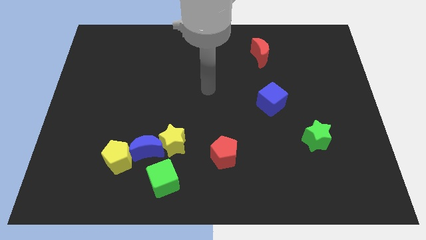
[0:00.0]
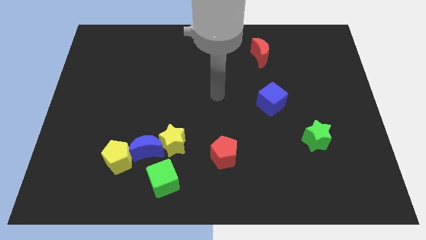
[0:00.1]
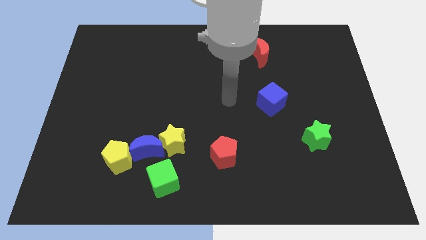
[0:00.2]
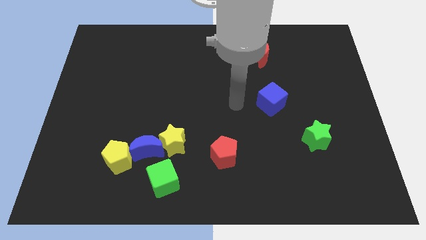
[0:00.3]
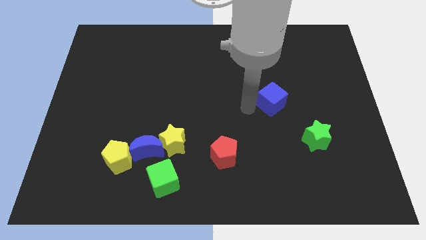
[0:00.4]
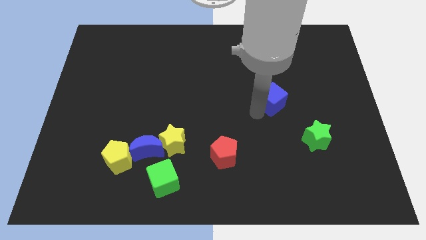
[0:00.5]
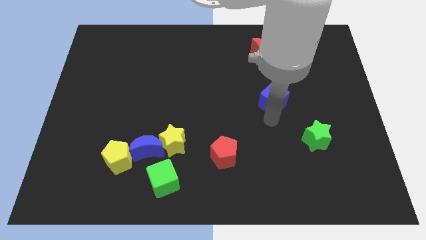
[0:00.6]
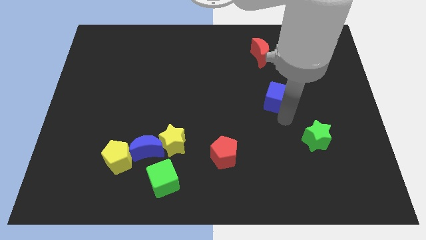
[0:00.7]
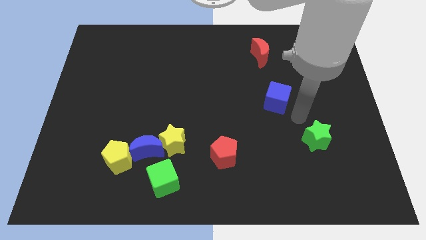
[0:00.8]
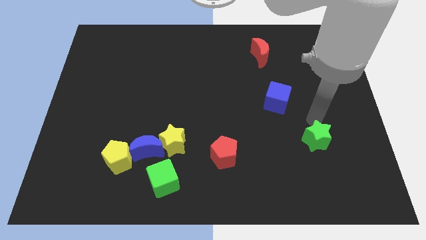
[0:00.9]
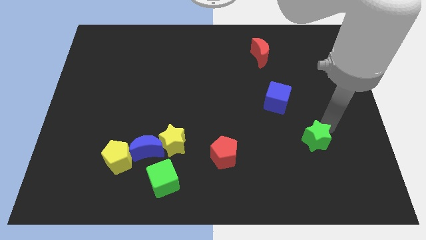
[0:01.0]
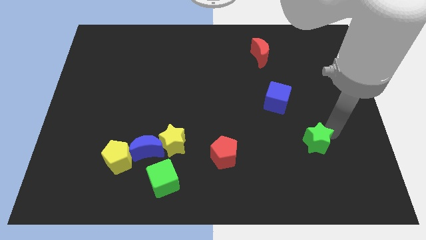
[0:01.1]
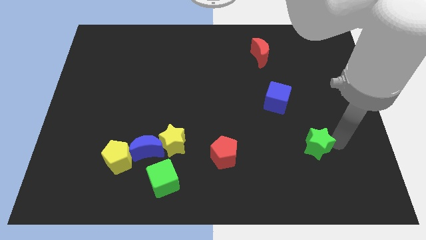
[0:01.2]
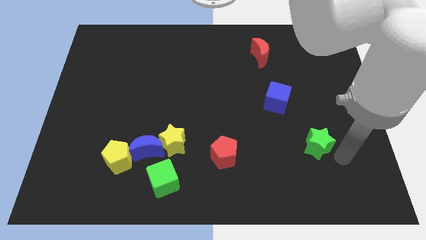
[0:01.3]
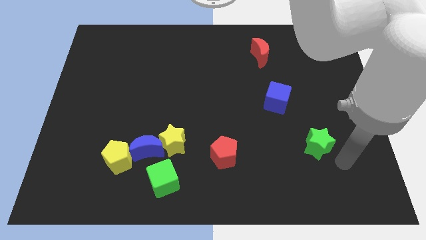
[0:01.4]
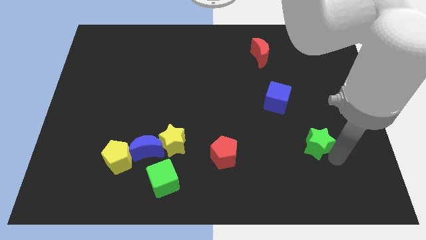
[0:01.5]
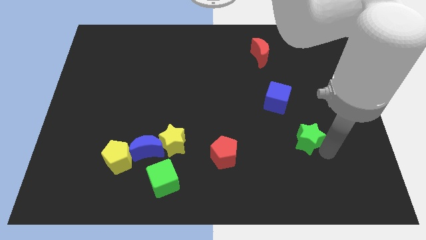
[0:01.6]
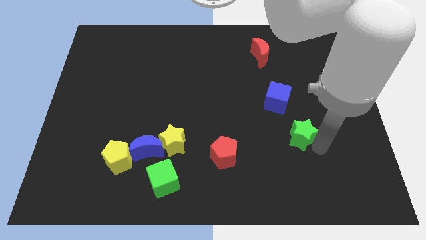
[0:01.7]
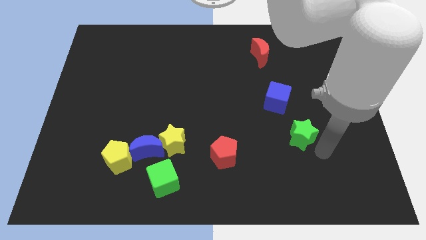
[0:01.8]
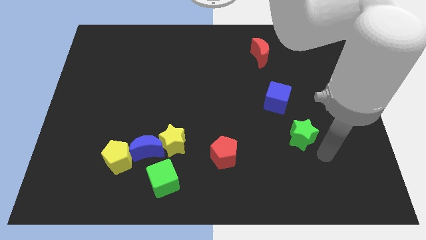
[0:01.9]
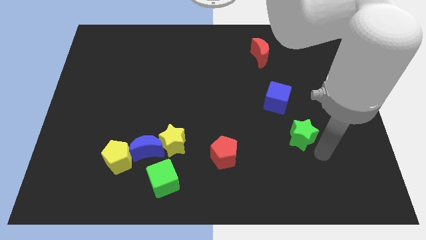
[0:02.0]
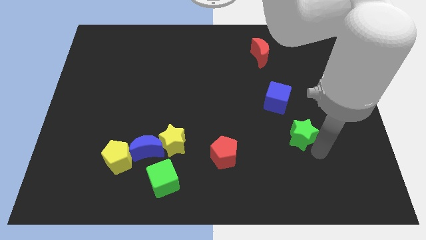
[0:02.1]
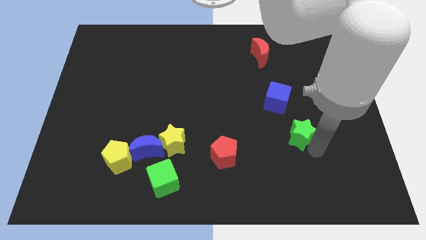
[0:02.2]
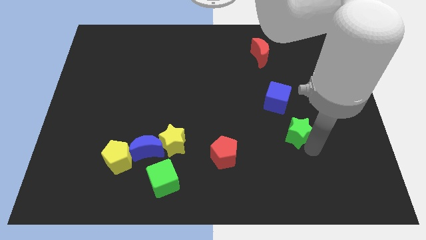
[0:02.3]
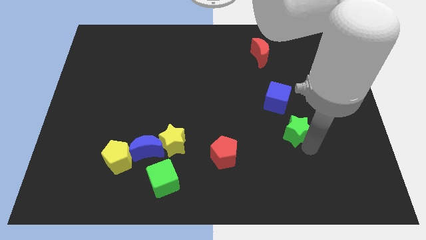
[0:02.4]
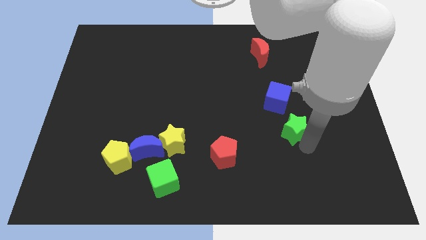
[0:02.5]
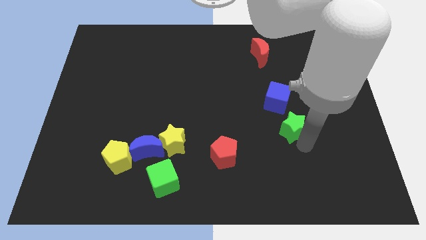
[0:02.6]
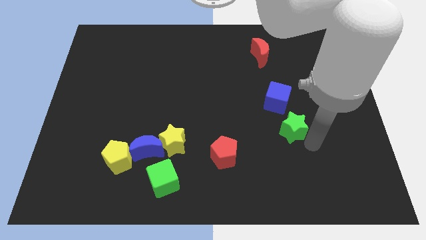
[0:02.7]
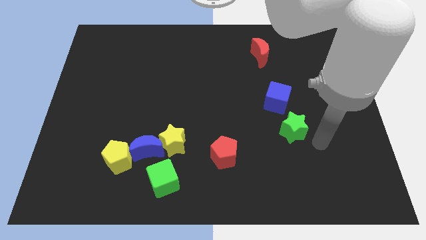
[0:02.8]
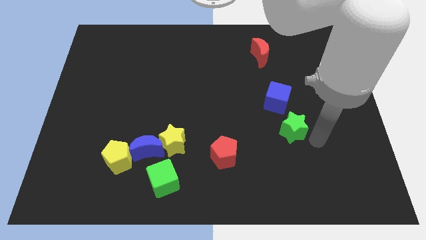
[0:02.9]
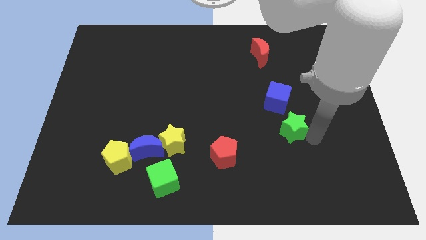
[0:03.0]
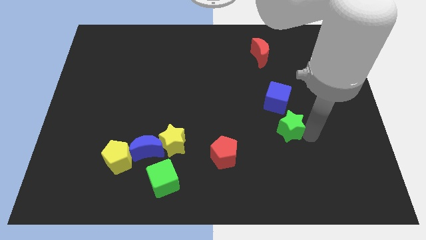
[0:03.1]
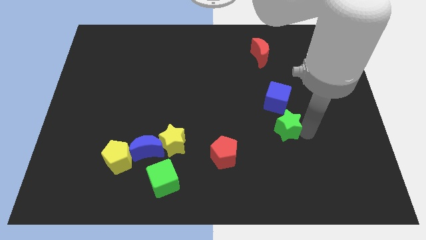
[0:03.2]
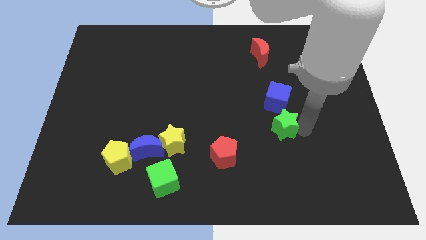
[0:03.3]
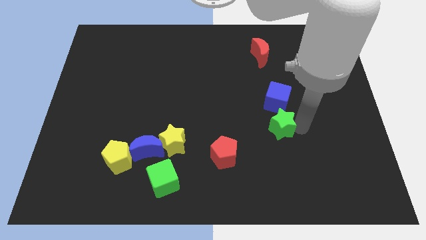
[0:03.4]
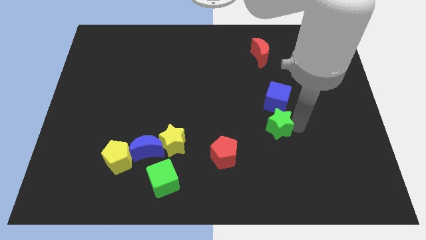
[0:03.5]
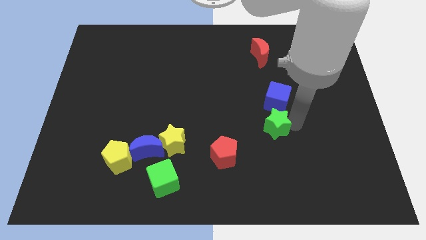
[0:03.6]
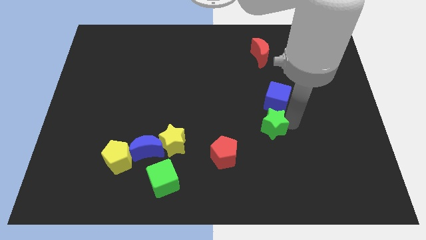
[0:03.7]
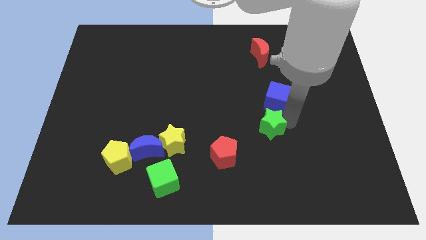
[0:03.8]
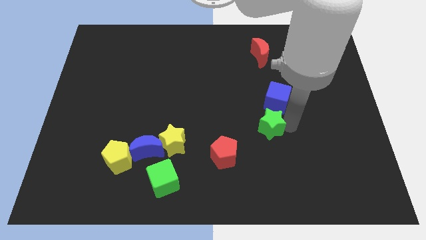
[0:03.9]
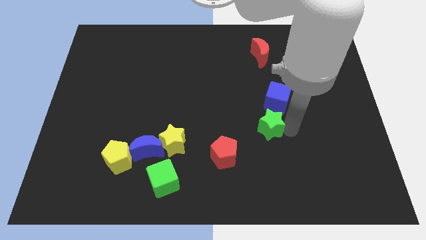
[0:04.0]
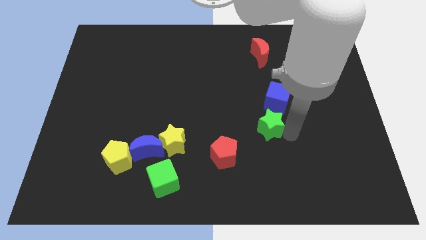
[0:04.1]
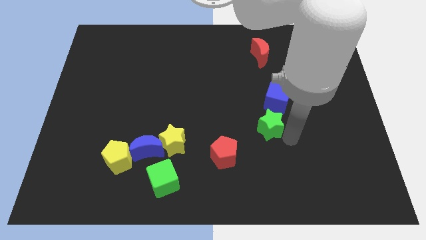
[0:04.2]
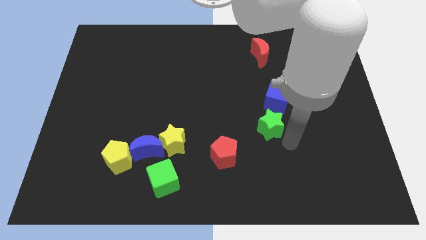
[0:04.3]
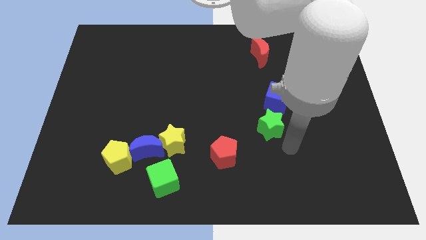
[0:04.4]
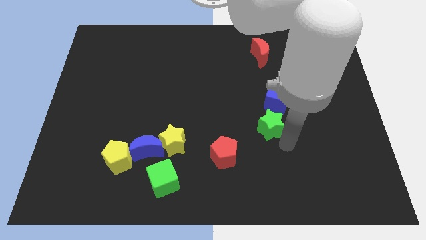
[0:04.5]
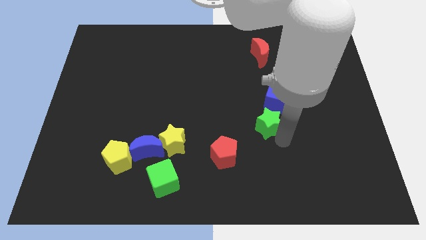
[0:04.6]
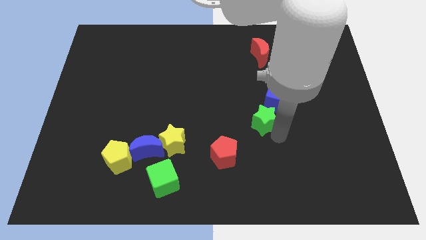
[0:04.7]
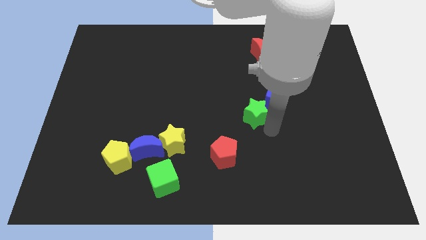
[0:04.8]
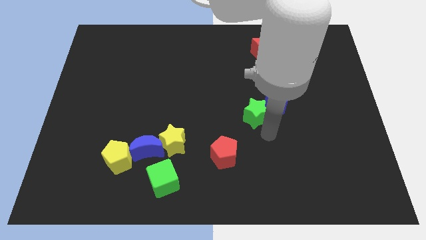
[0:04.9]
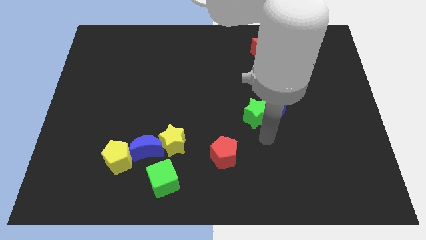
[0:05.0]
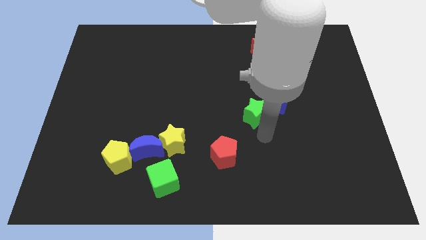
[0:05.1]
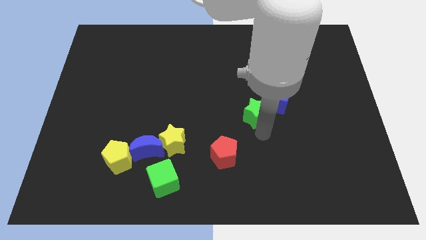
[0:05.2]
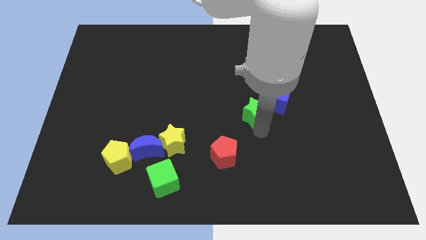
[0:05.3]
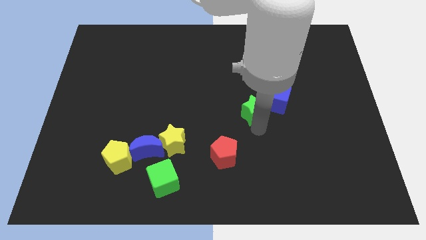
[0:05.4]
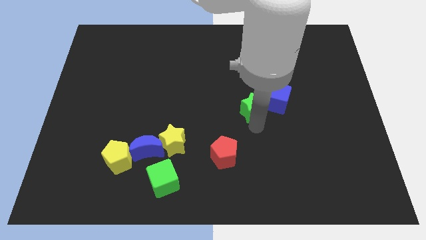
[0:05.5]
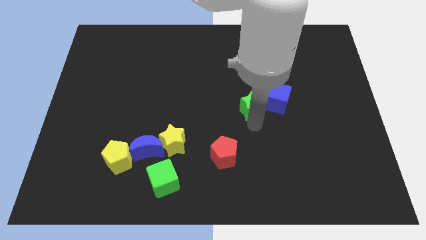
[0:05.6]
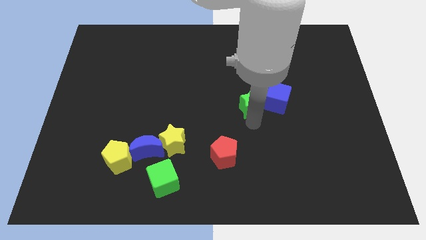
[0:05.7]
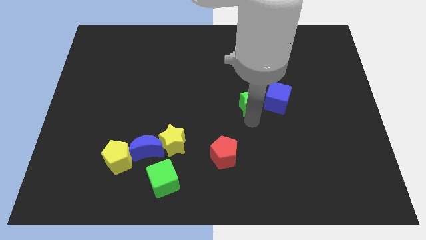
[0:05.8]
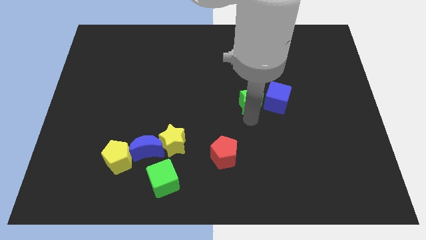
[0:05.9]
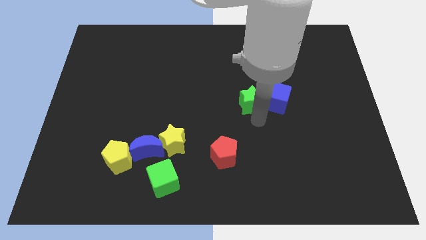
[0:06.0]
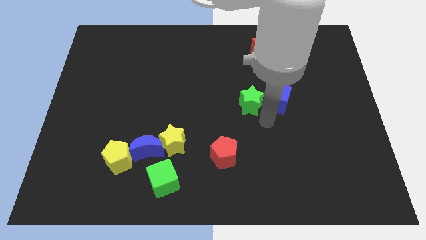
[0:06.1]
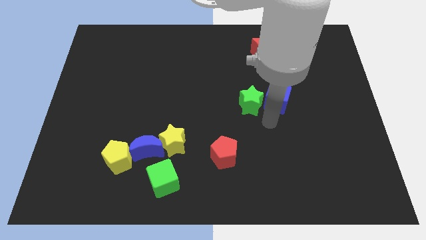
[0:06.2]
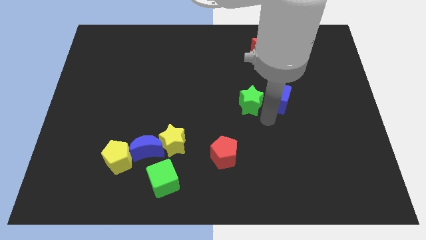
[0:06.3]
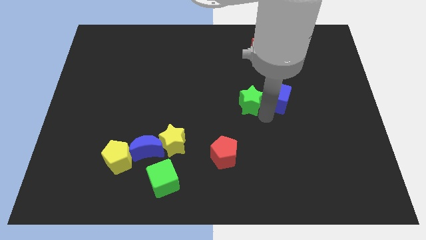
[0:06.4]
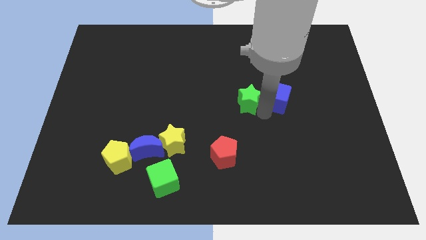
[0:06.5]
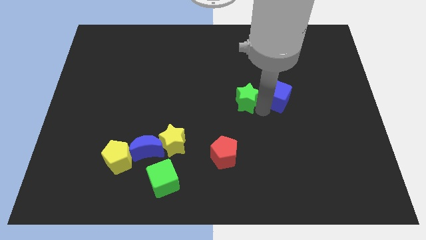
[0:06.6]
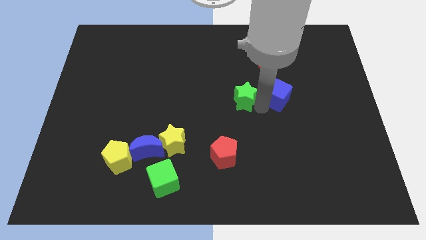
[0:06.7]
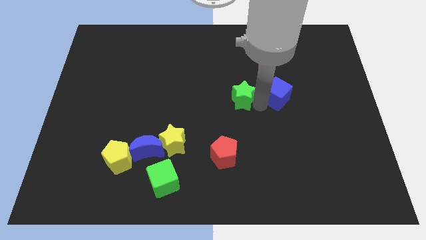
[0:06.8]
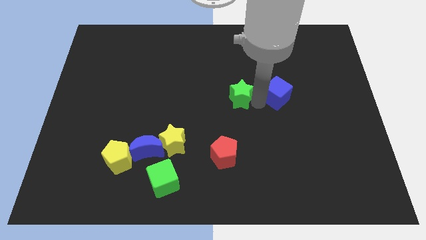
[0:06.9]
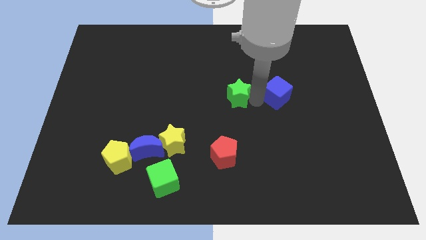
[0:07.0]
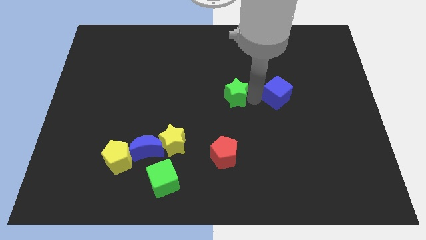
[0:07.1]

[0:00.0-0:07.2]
push the green star upwards and left diagonally

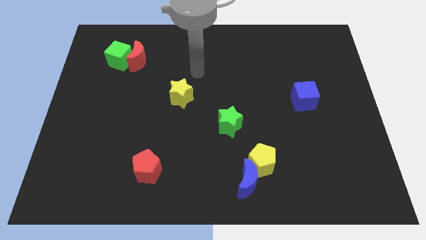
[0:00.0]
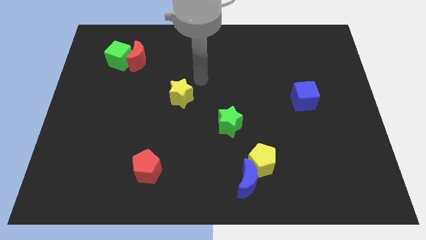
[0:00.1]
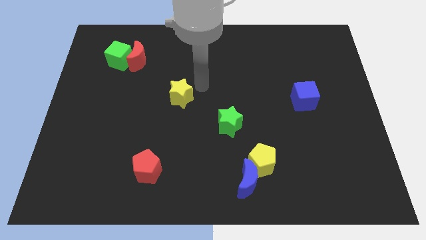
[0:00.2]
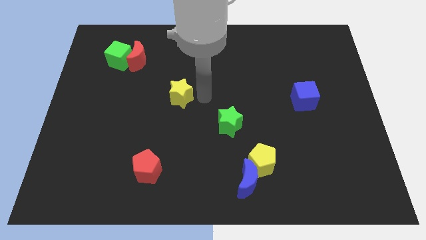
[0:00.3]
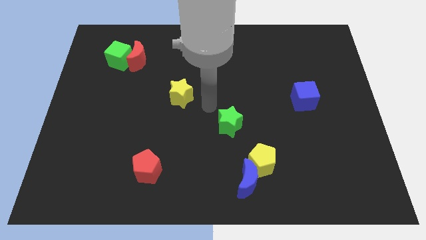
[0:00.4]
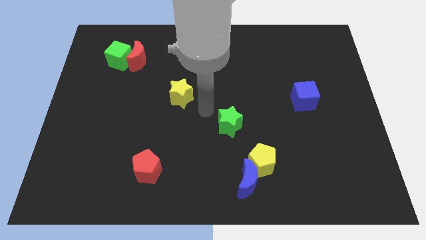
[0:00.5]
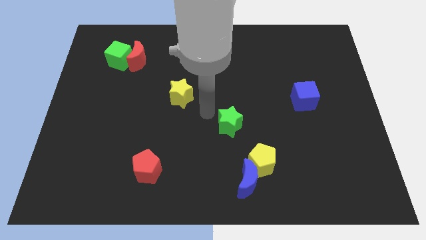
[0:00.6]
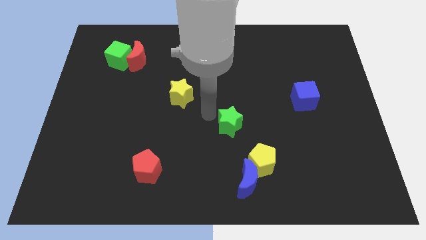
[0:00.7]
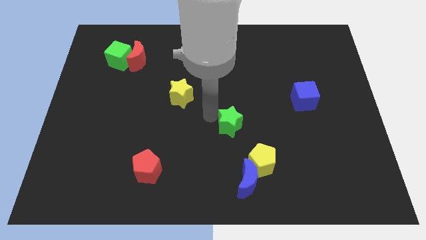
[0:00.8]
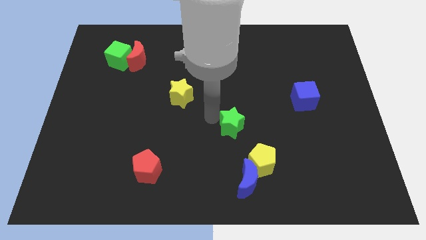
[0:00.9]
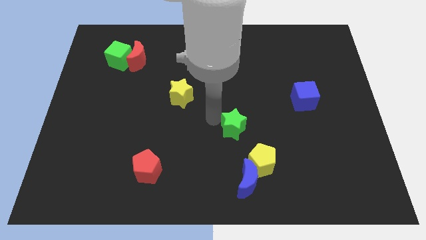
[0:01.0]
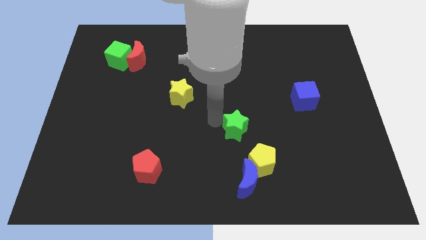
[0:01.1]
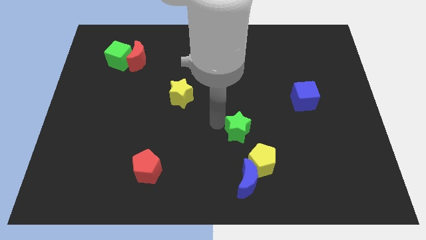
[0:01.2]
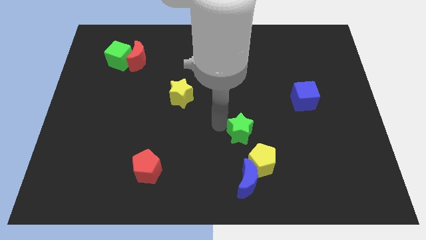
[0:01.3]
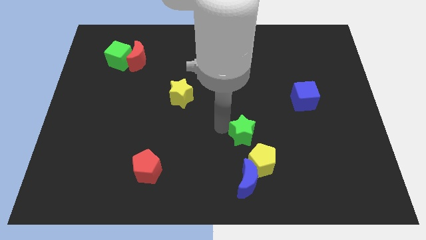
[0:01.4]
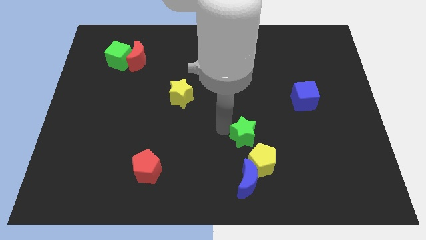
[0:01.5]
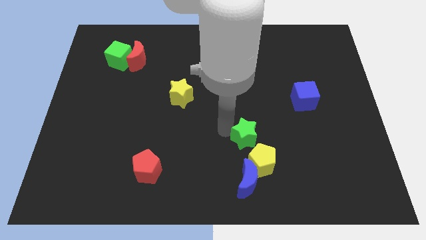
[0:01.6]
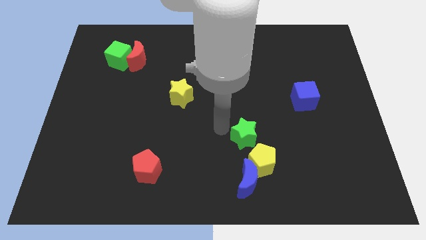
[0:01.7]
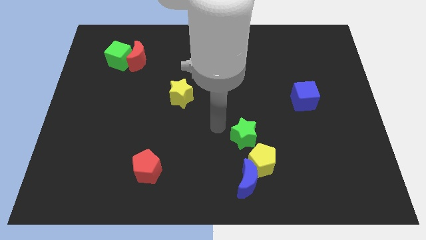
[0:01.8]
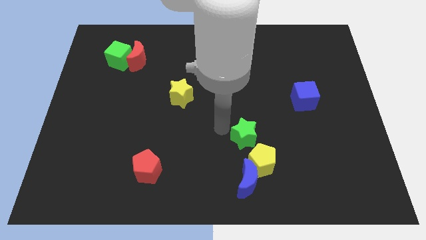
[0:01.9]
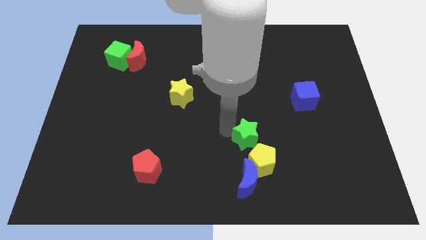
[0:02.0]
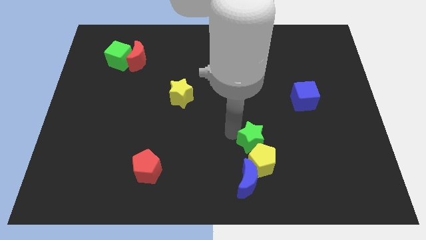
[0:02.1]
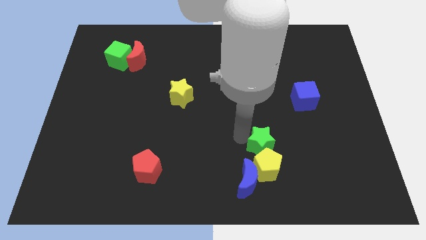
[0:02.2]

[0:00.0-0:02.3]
slightly slide the green star down and right
